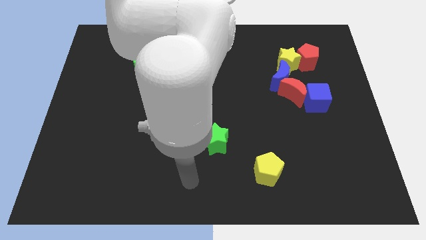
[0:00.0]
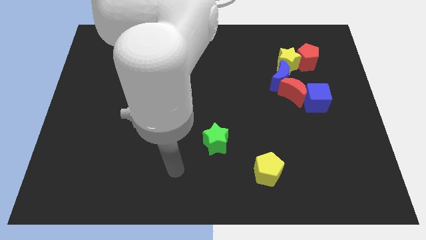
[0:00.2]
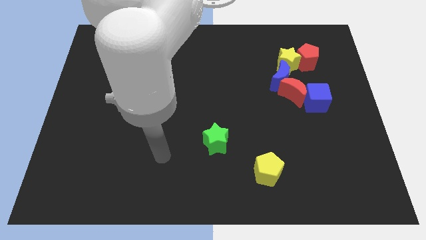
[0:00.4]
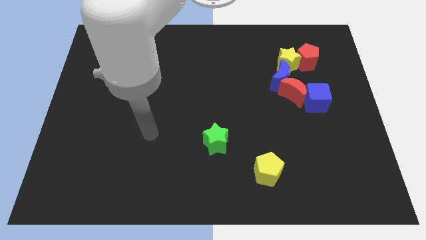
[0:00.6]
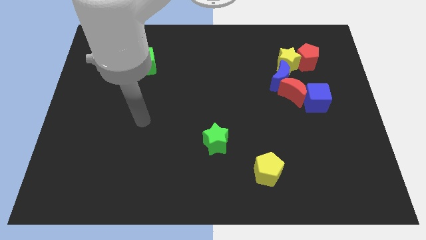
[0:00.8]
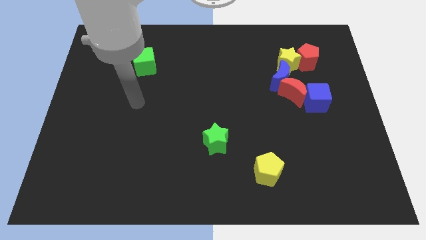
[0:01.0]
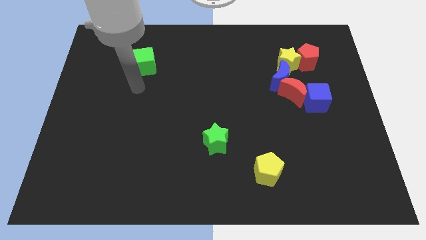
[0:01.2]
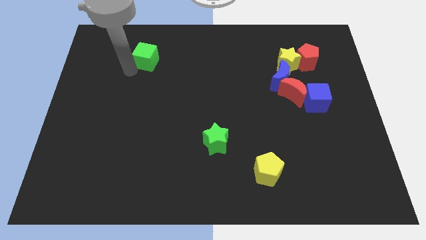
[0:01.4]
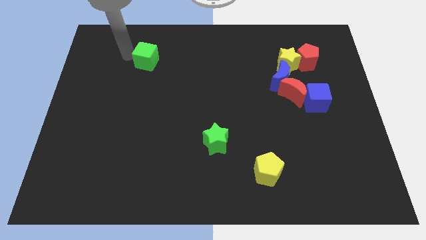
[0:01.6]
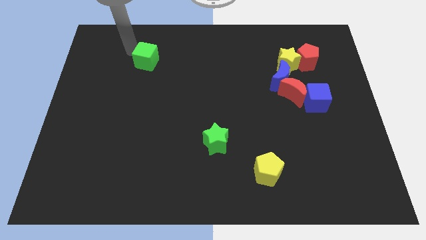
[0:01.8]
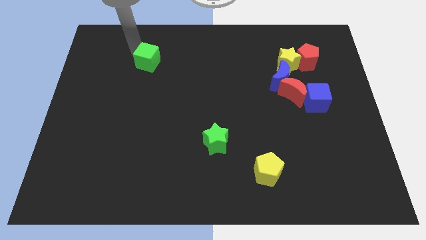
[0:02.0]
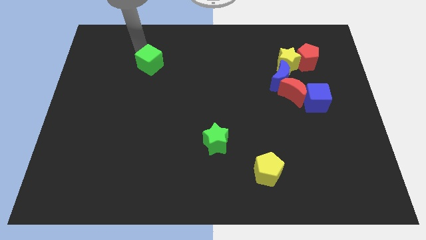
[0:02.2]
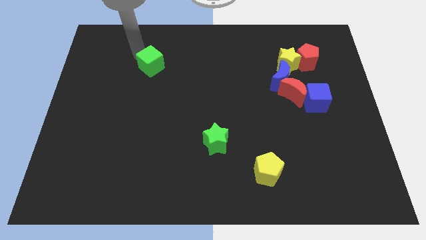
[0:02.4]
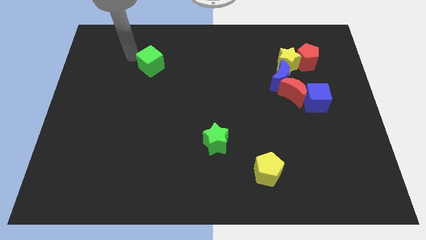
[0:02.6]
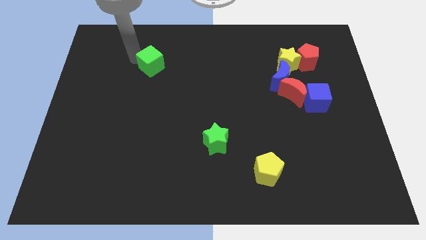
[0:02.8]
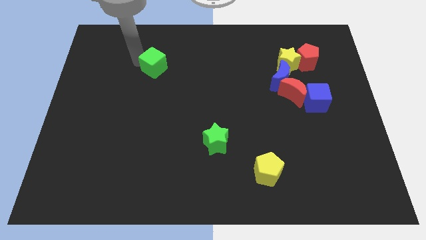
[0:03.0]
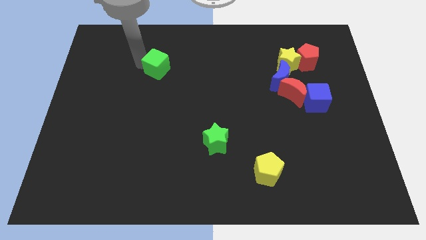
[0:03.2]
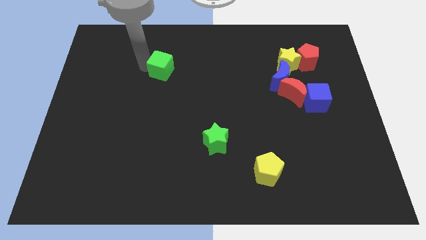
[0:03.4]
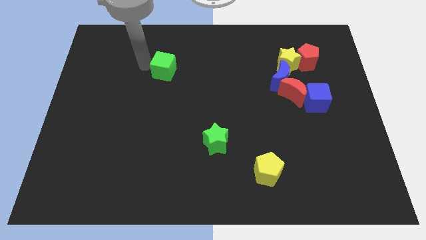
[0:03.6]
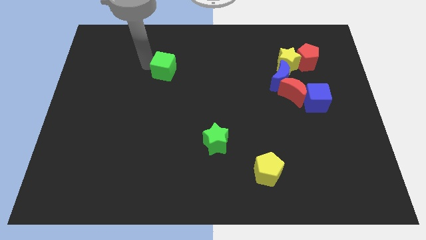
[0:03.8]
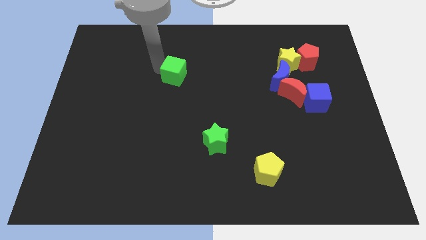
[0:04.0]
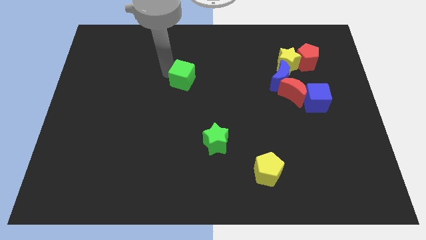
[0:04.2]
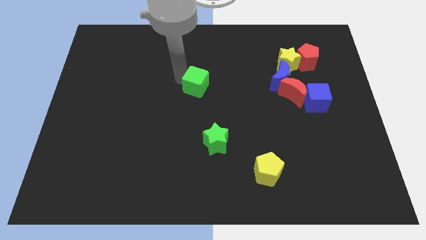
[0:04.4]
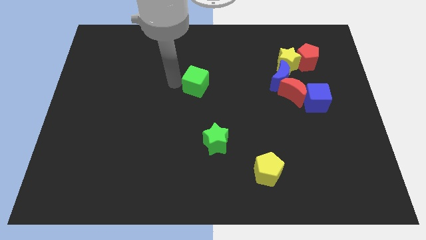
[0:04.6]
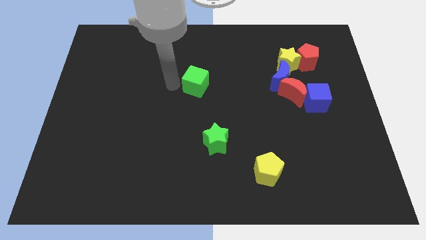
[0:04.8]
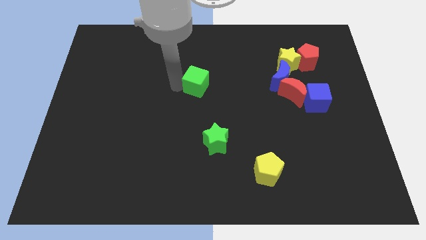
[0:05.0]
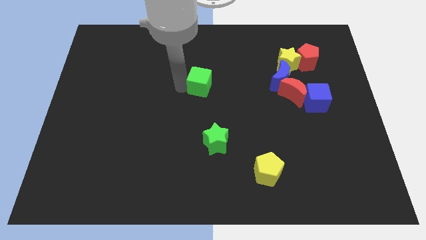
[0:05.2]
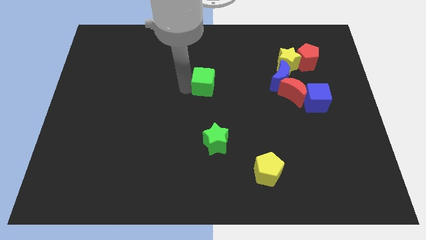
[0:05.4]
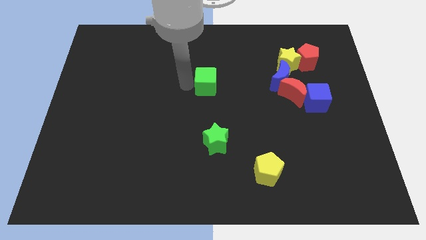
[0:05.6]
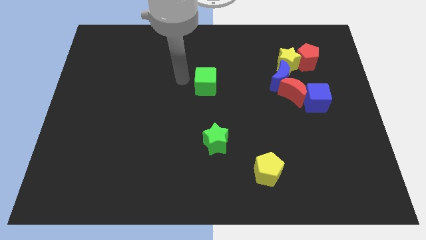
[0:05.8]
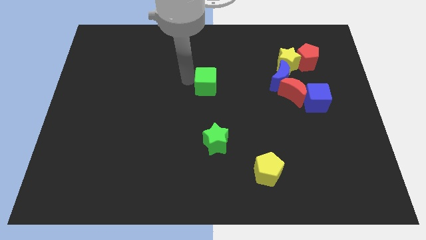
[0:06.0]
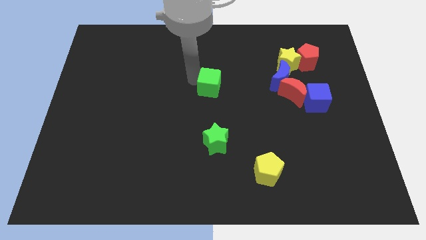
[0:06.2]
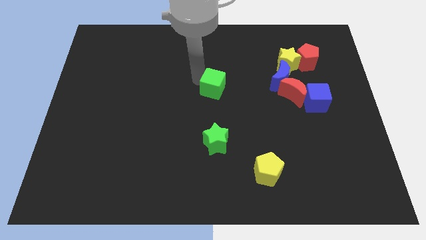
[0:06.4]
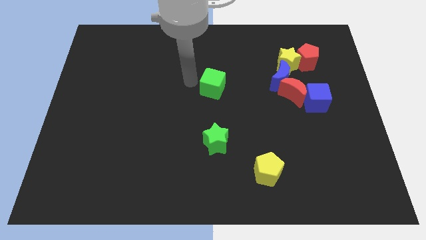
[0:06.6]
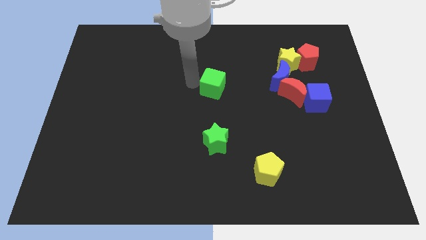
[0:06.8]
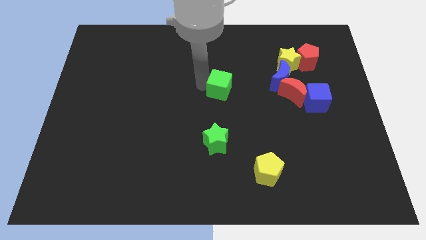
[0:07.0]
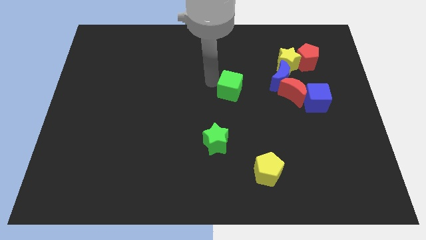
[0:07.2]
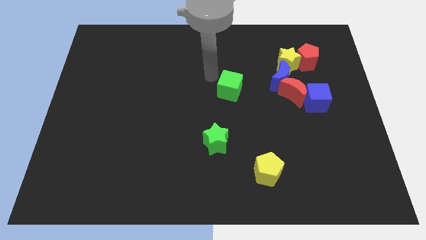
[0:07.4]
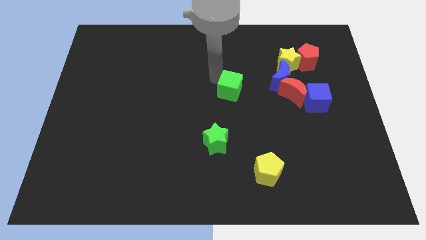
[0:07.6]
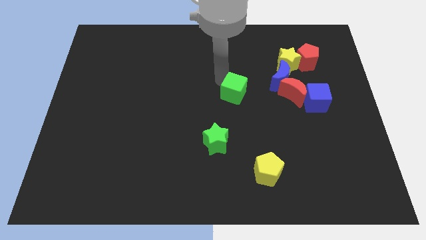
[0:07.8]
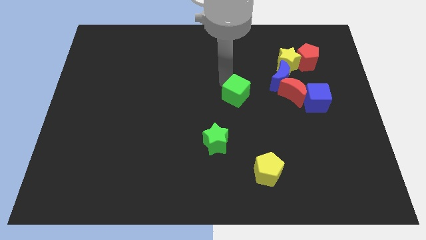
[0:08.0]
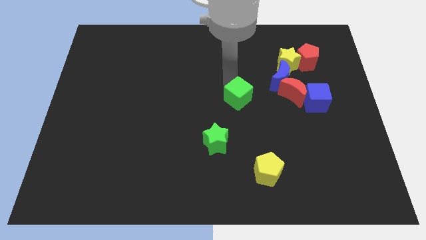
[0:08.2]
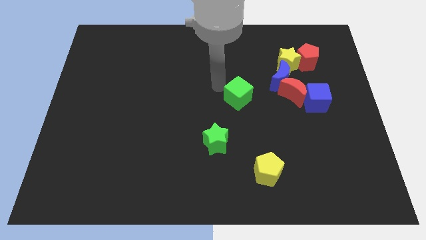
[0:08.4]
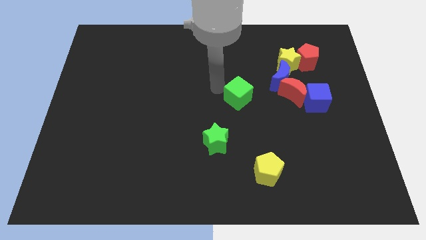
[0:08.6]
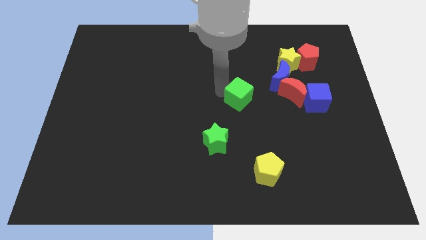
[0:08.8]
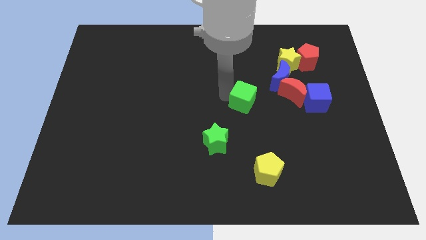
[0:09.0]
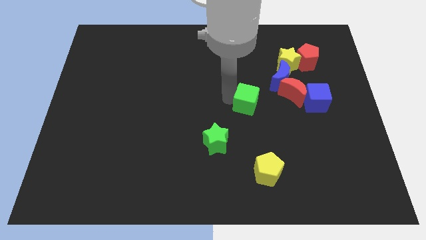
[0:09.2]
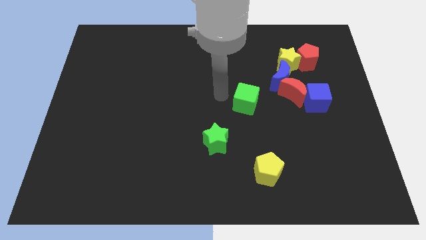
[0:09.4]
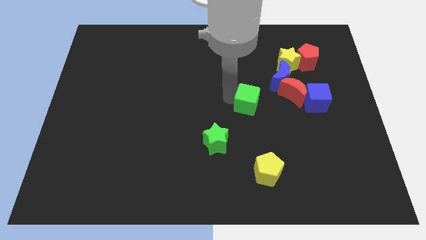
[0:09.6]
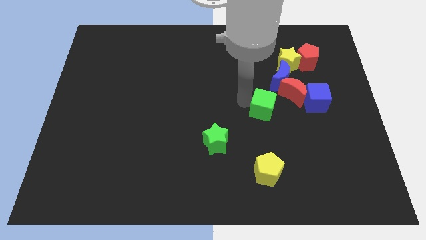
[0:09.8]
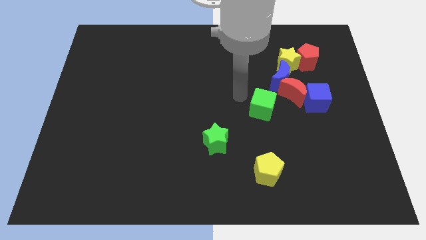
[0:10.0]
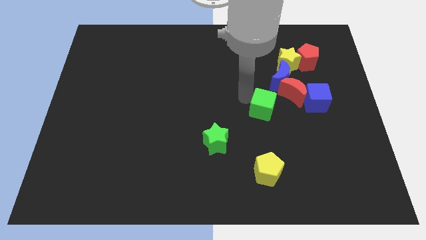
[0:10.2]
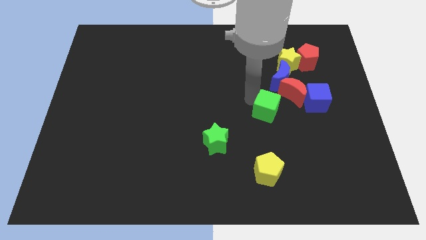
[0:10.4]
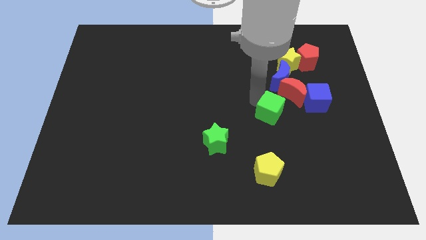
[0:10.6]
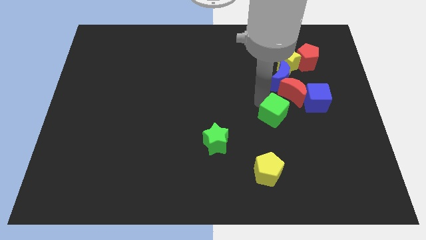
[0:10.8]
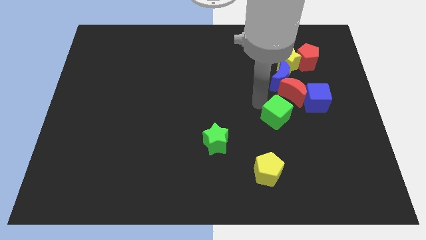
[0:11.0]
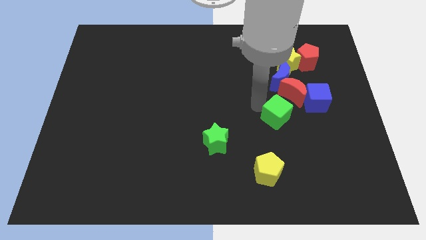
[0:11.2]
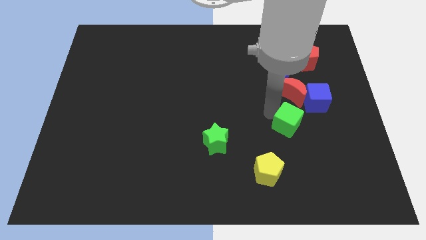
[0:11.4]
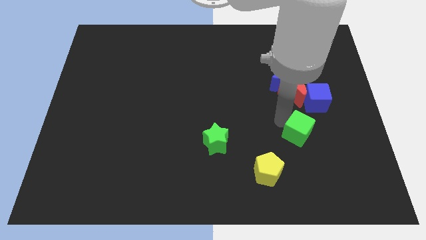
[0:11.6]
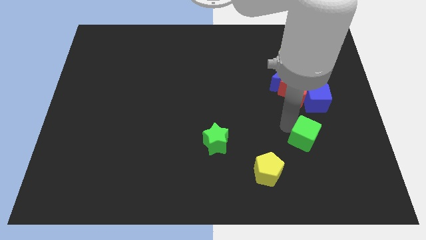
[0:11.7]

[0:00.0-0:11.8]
slide the green cube to the bottom of the blue cube

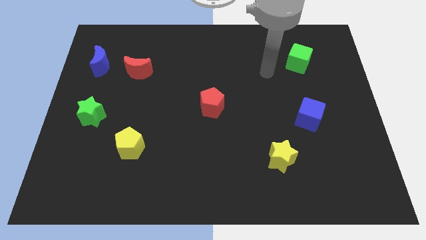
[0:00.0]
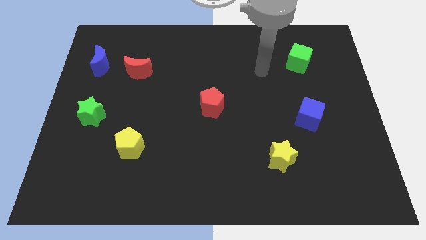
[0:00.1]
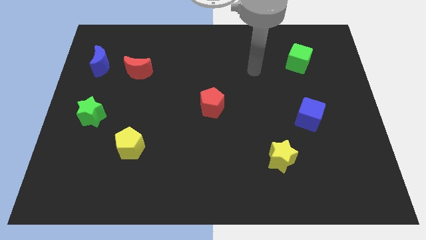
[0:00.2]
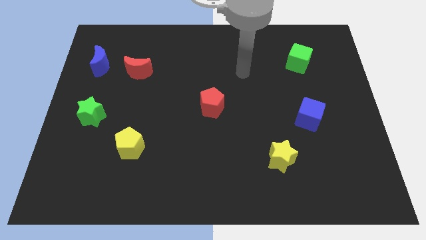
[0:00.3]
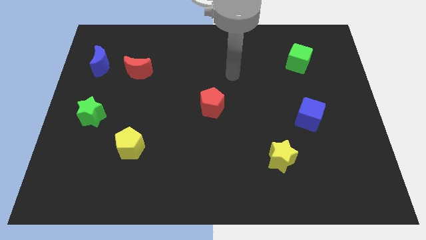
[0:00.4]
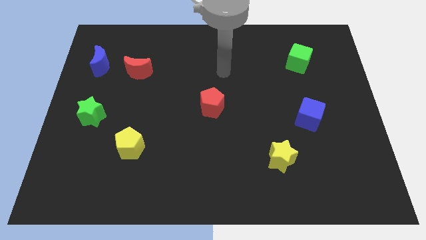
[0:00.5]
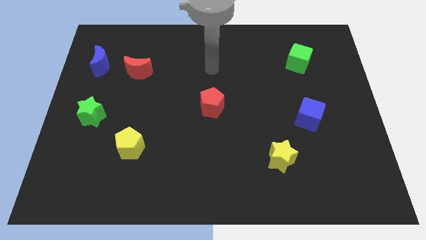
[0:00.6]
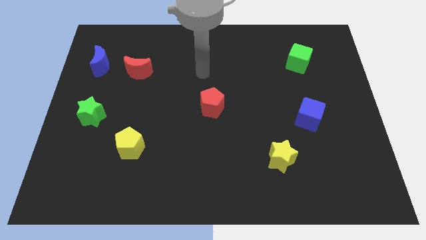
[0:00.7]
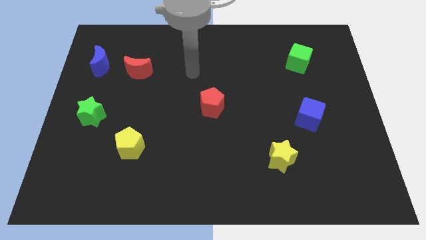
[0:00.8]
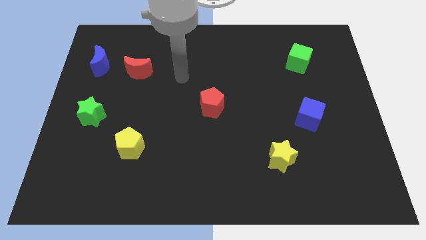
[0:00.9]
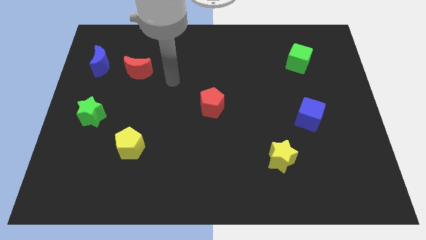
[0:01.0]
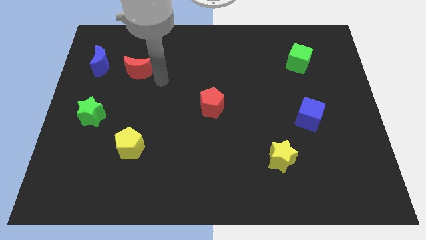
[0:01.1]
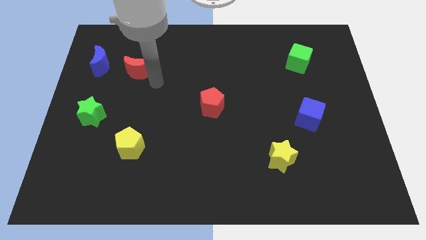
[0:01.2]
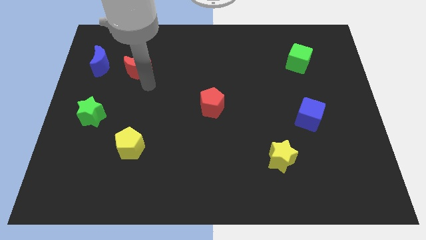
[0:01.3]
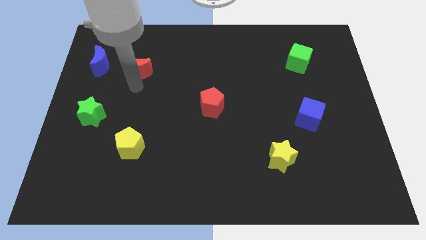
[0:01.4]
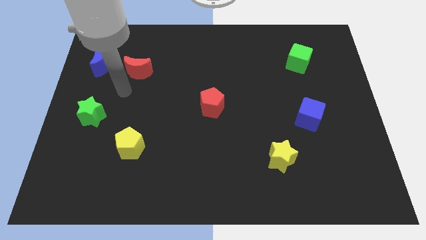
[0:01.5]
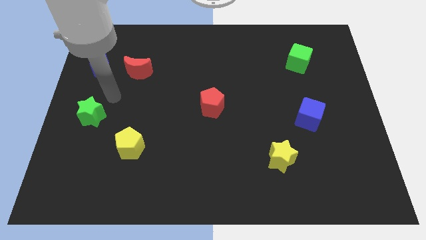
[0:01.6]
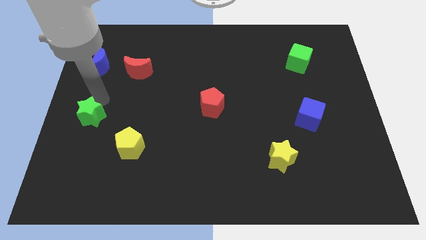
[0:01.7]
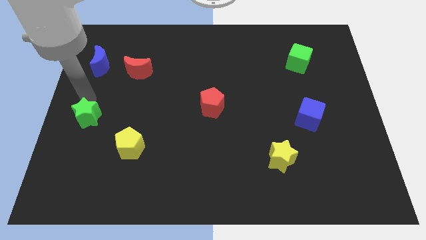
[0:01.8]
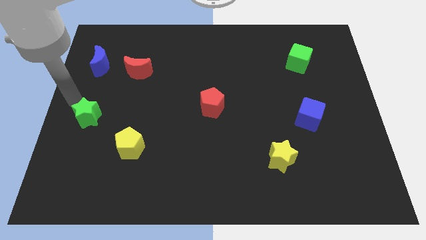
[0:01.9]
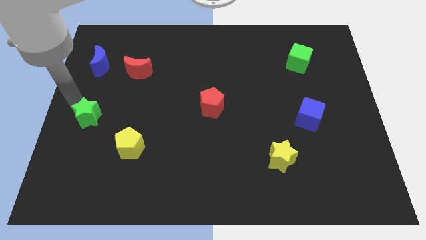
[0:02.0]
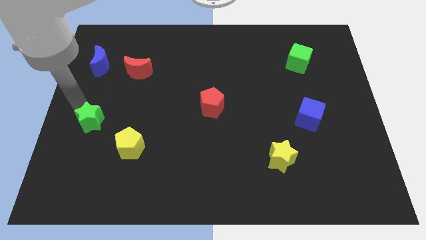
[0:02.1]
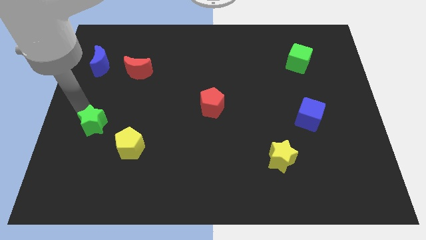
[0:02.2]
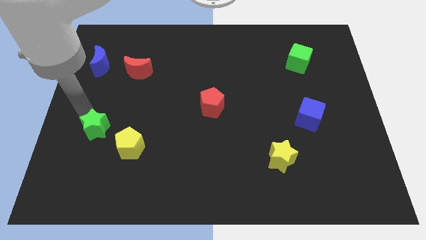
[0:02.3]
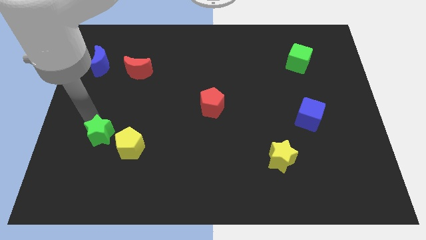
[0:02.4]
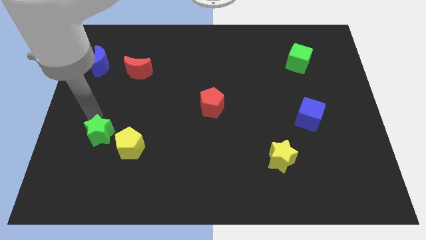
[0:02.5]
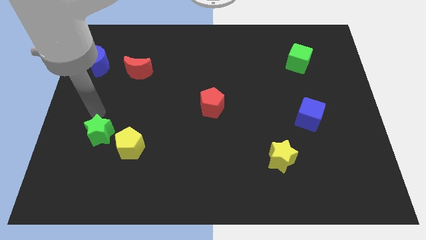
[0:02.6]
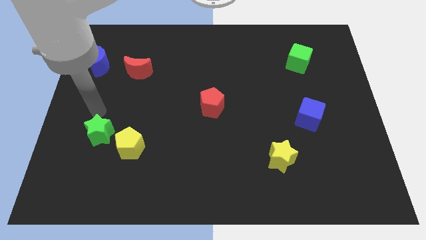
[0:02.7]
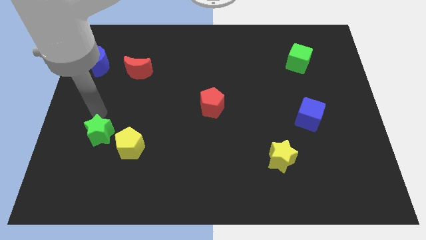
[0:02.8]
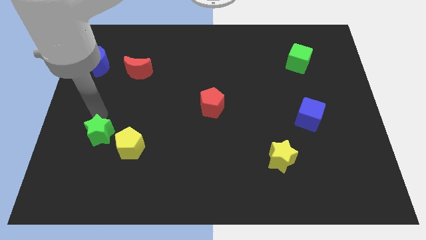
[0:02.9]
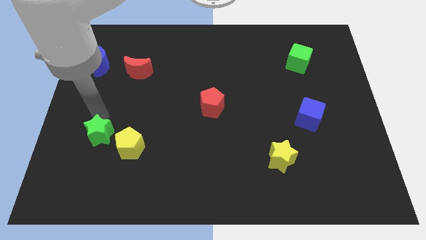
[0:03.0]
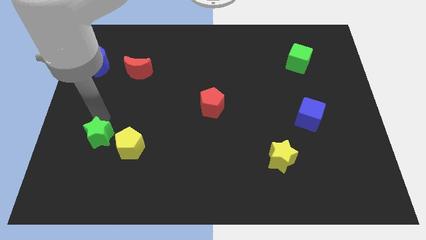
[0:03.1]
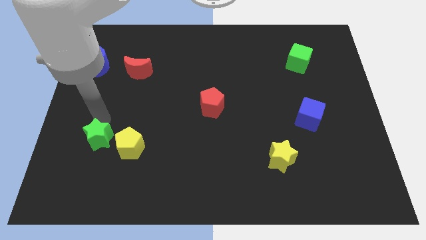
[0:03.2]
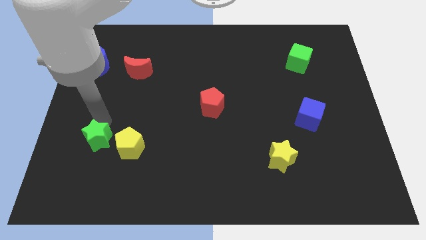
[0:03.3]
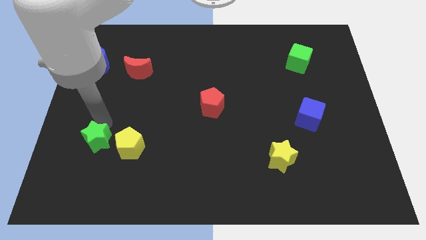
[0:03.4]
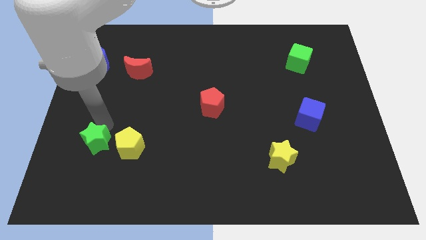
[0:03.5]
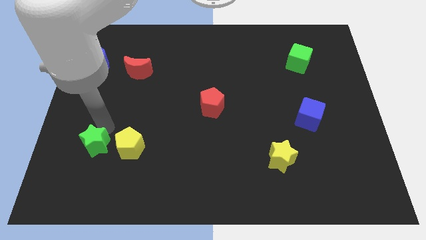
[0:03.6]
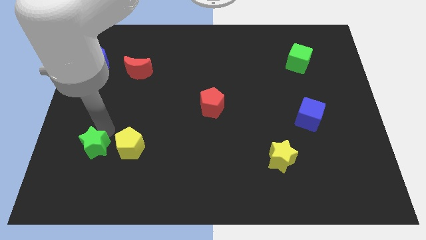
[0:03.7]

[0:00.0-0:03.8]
slide the green star diagonally down and to the left of the yellow pentagon
